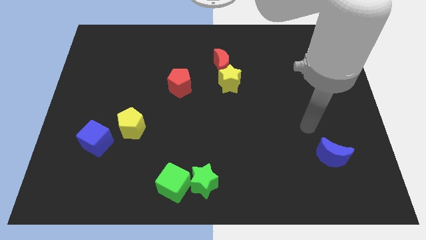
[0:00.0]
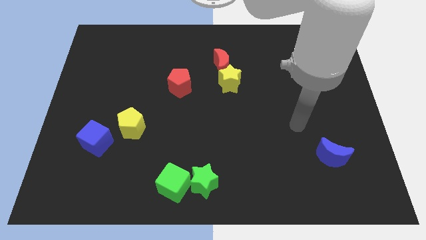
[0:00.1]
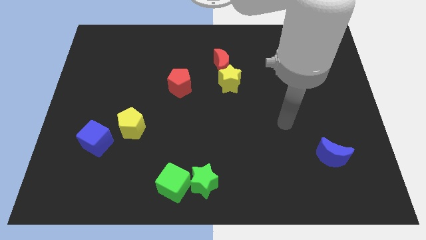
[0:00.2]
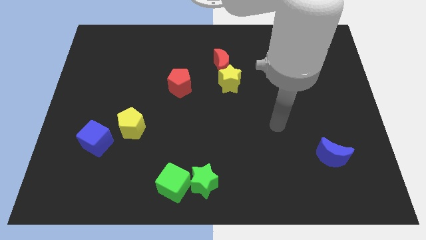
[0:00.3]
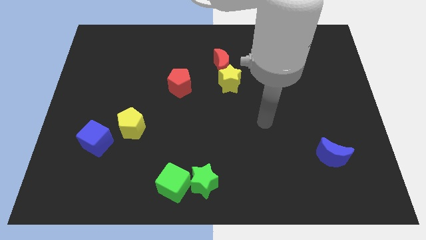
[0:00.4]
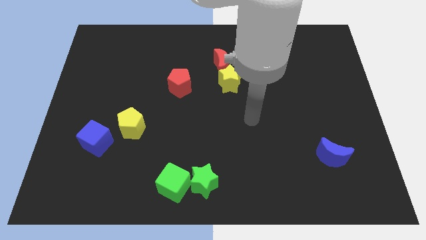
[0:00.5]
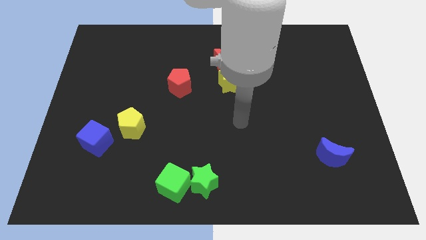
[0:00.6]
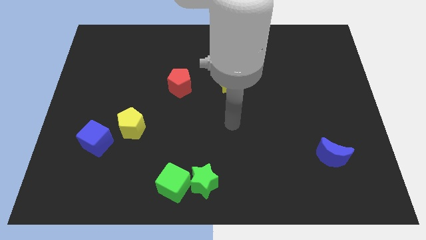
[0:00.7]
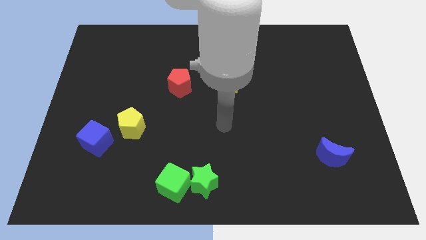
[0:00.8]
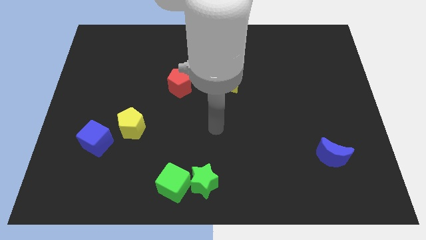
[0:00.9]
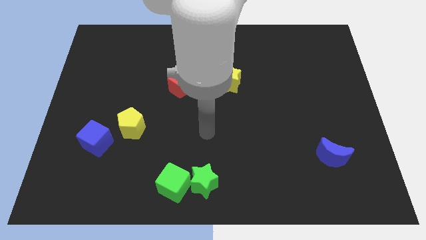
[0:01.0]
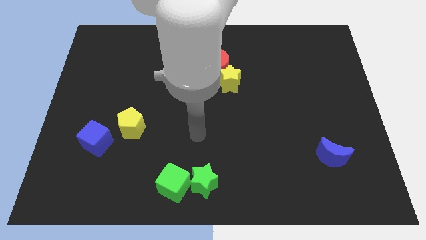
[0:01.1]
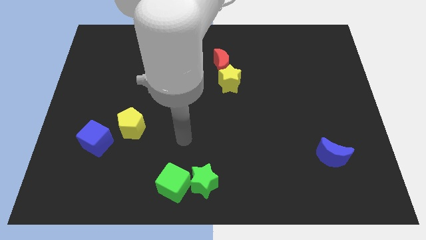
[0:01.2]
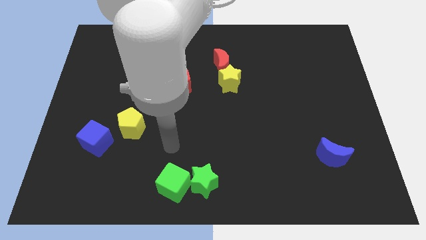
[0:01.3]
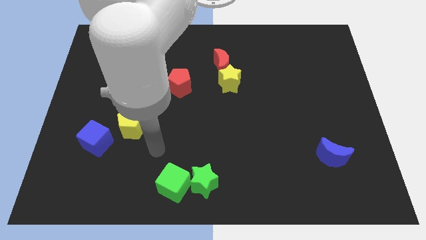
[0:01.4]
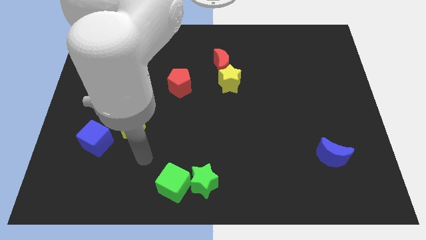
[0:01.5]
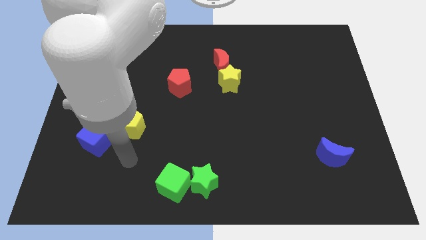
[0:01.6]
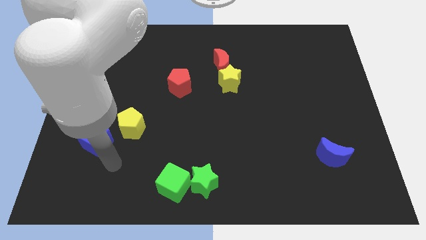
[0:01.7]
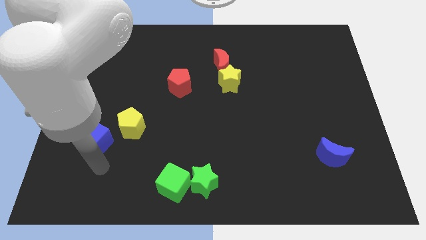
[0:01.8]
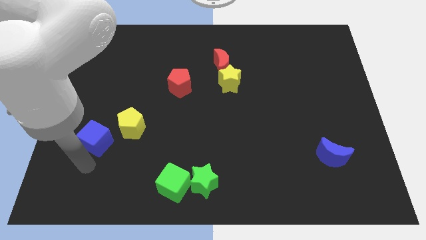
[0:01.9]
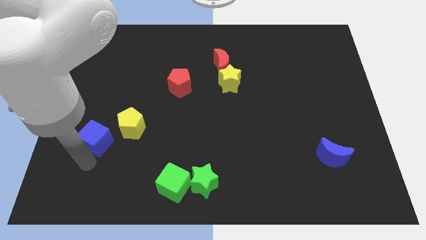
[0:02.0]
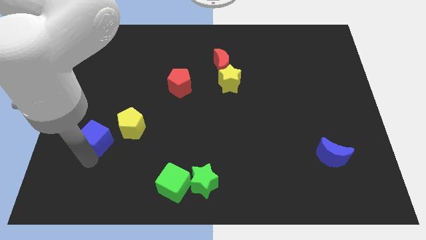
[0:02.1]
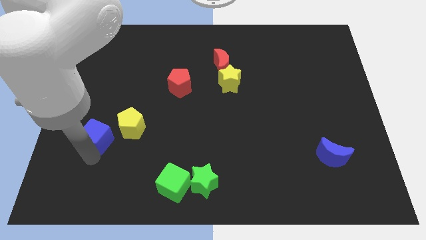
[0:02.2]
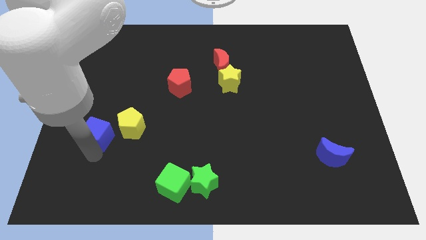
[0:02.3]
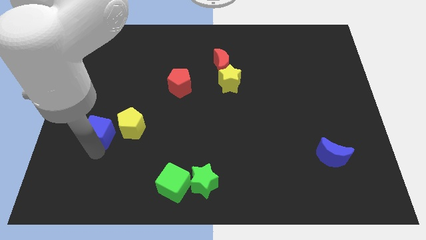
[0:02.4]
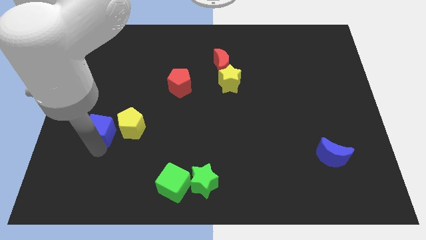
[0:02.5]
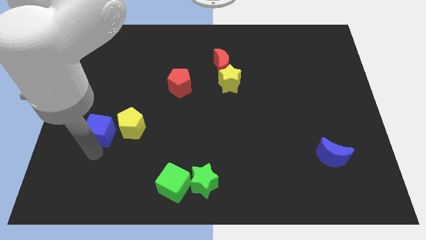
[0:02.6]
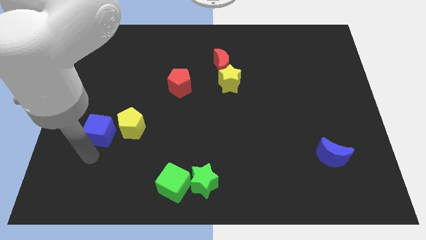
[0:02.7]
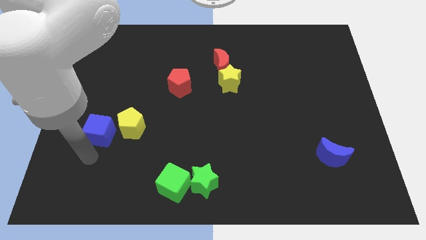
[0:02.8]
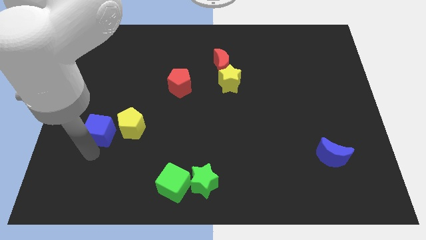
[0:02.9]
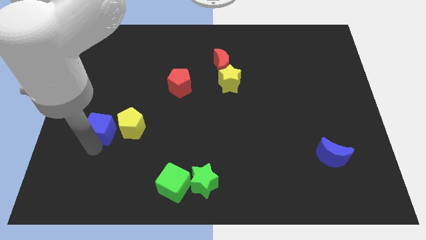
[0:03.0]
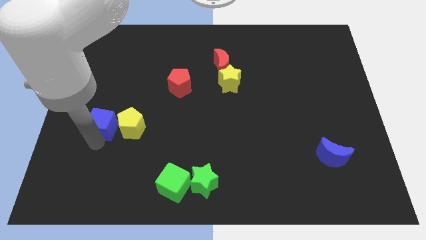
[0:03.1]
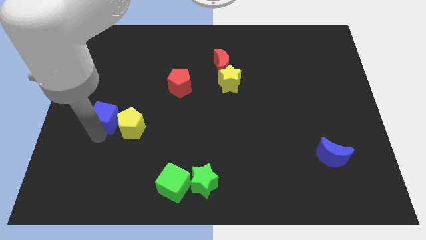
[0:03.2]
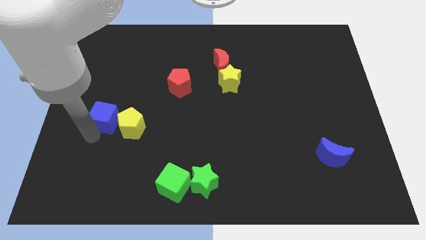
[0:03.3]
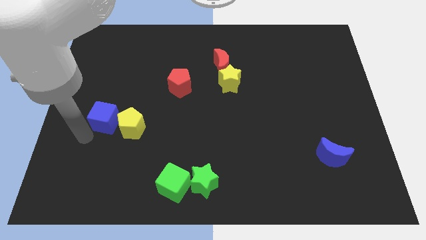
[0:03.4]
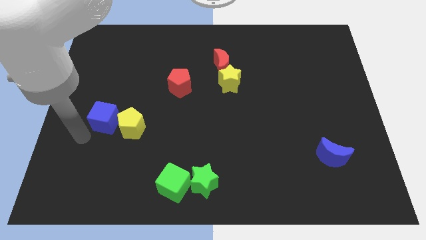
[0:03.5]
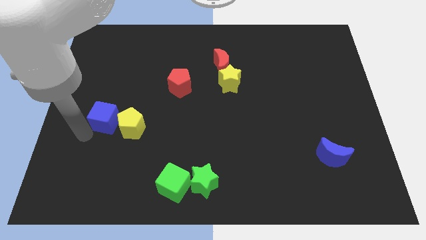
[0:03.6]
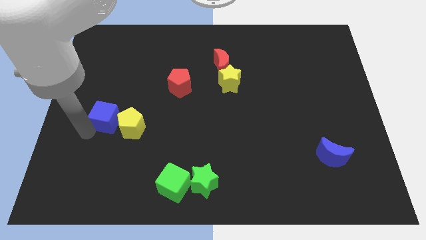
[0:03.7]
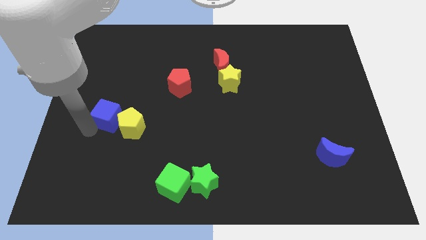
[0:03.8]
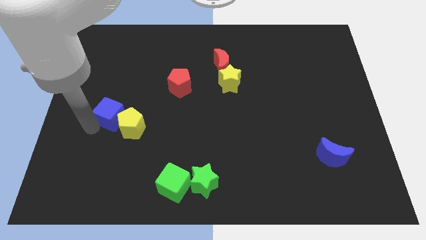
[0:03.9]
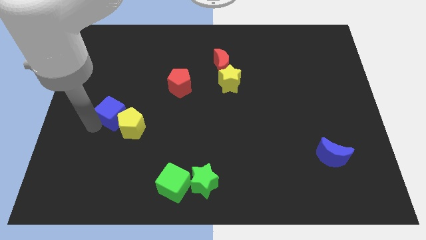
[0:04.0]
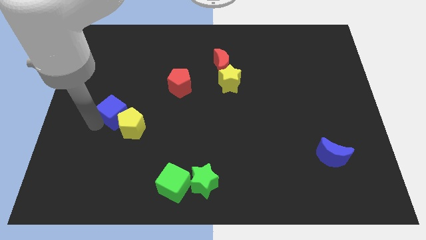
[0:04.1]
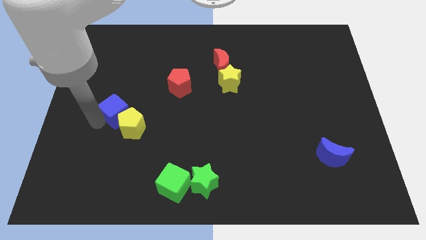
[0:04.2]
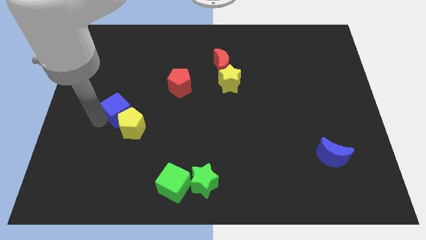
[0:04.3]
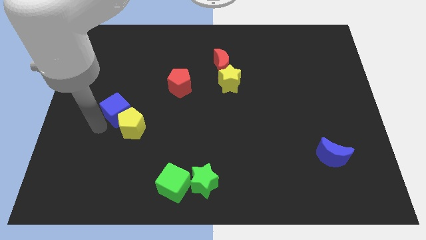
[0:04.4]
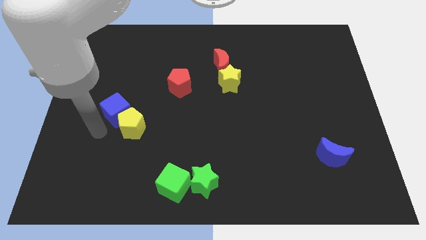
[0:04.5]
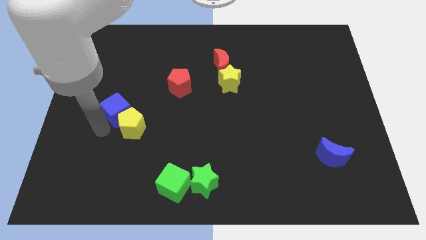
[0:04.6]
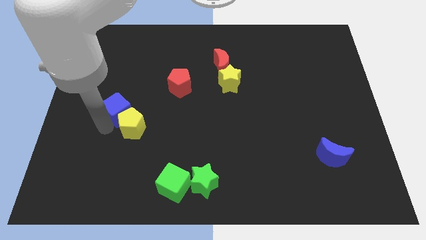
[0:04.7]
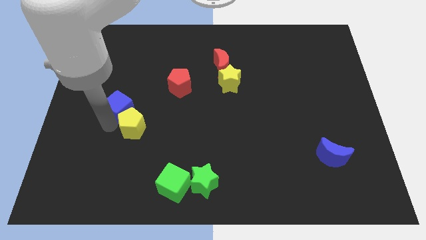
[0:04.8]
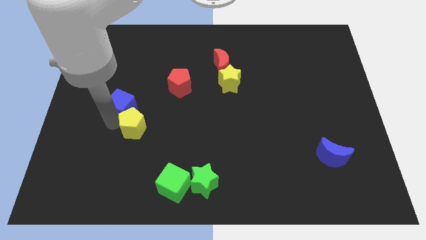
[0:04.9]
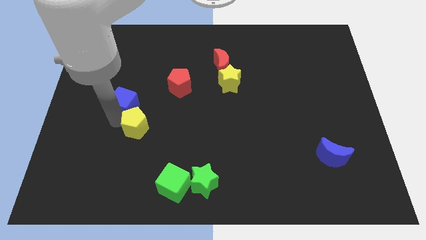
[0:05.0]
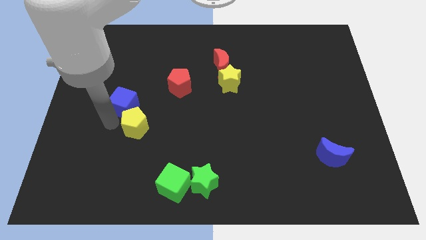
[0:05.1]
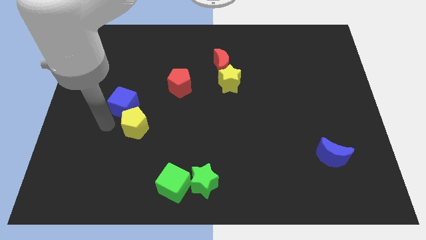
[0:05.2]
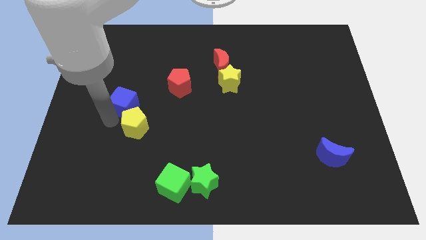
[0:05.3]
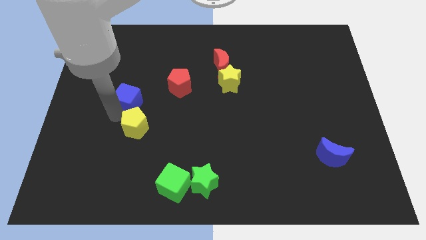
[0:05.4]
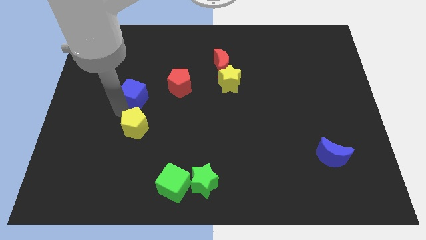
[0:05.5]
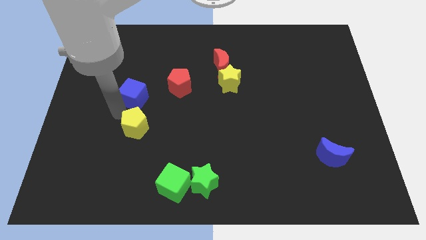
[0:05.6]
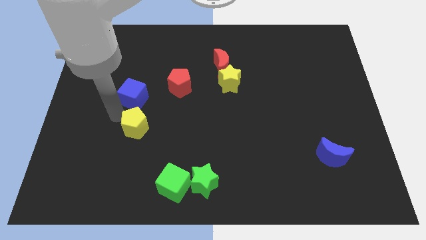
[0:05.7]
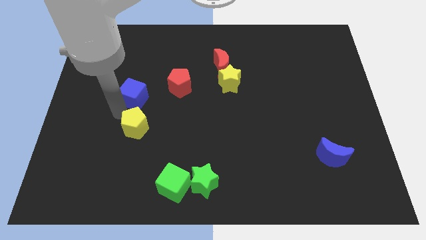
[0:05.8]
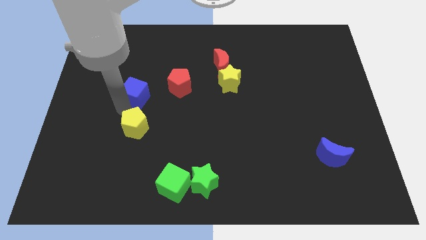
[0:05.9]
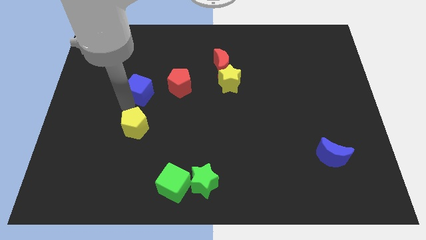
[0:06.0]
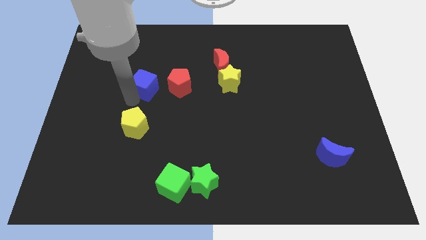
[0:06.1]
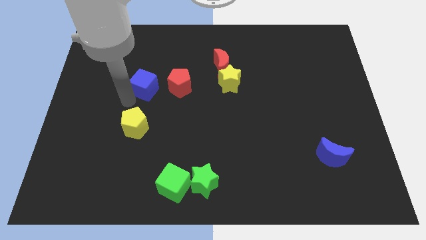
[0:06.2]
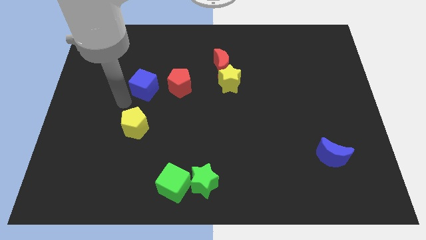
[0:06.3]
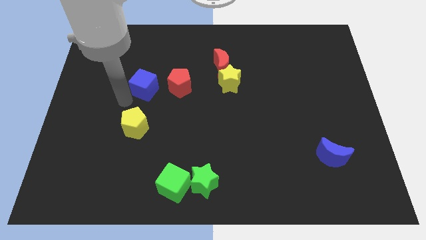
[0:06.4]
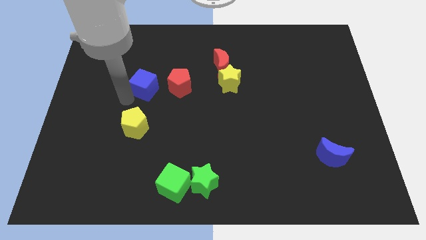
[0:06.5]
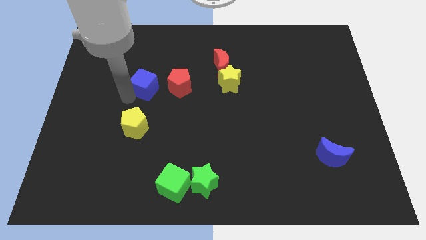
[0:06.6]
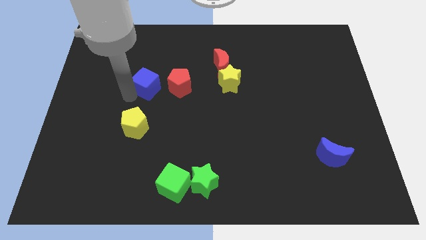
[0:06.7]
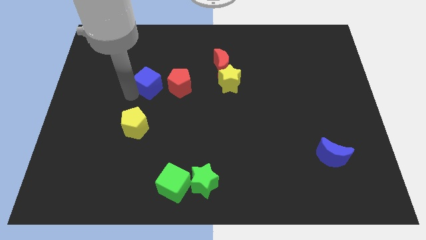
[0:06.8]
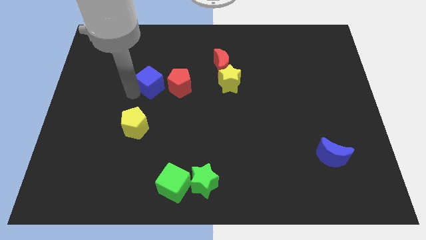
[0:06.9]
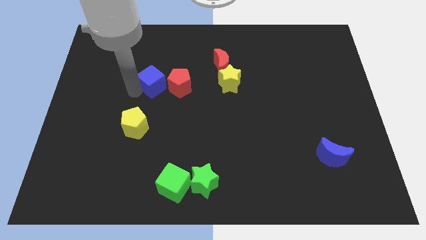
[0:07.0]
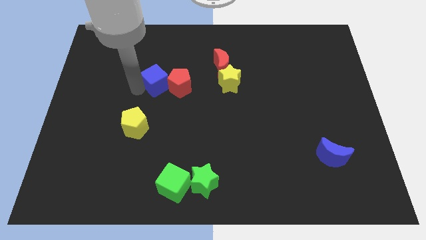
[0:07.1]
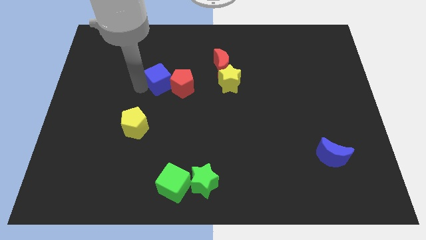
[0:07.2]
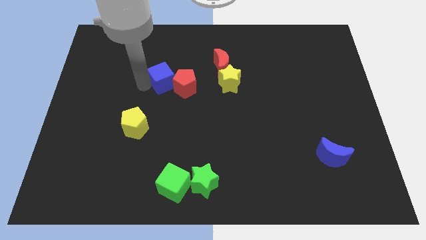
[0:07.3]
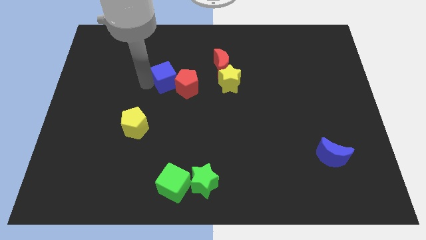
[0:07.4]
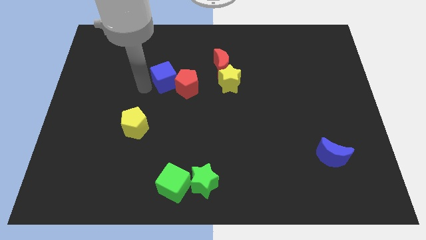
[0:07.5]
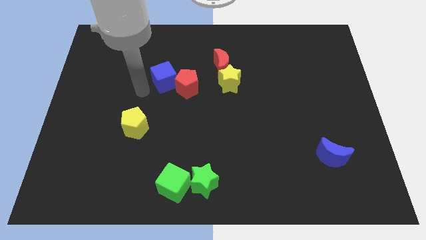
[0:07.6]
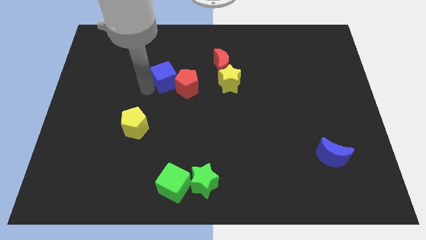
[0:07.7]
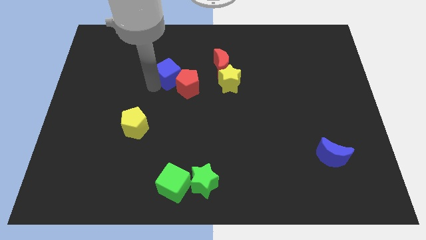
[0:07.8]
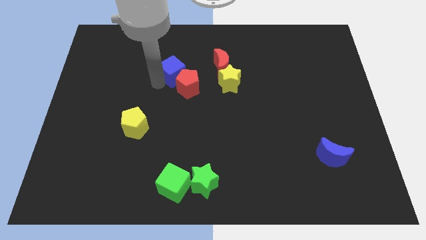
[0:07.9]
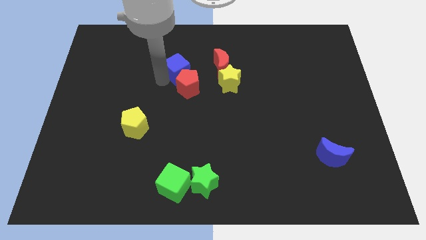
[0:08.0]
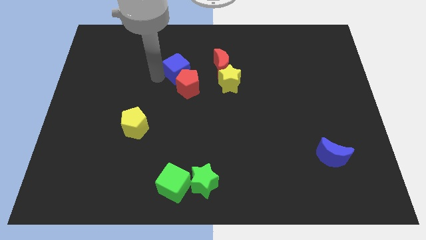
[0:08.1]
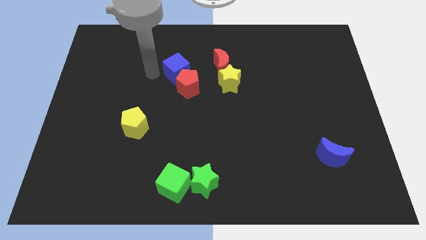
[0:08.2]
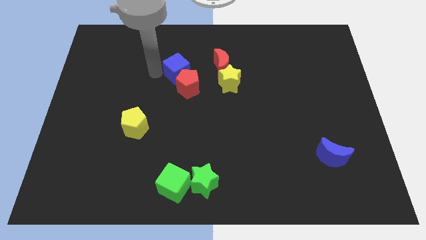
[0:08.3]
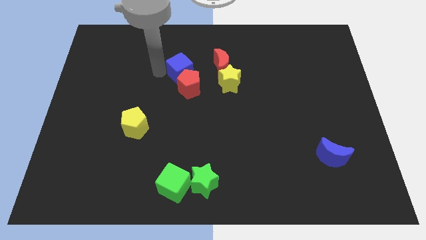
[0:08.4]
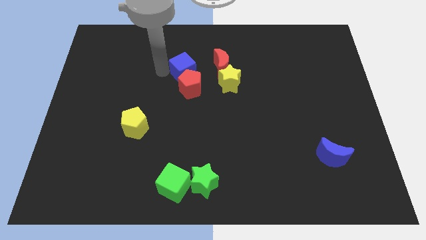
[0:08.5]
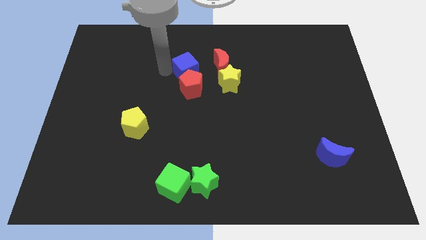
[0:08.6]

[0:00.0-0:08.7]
put the blue cube to the top right side of the red pentagon
